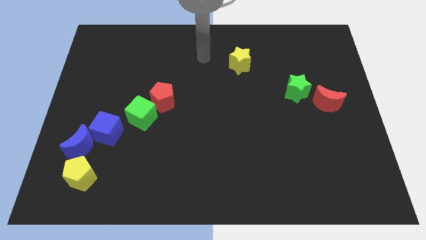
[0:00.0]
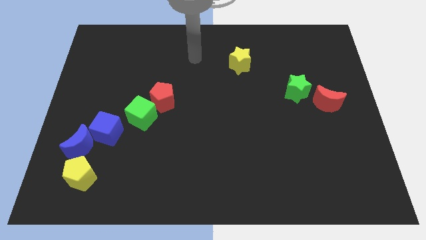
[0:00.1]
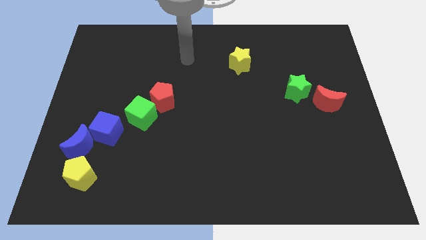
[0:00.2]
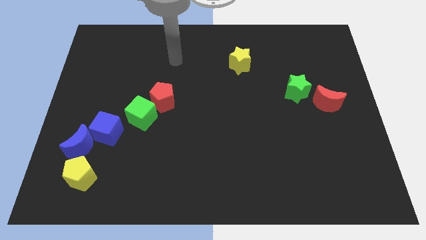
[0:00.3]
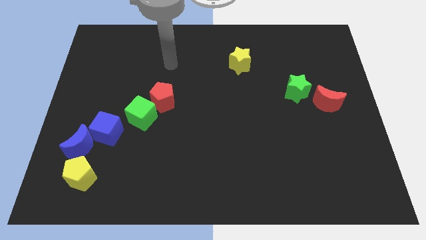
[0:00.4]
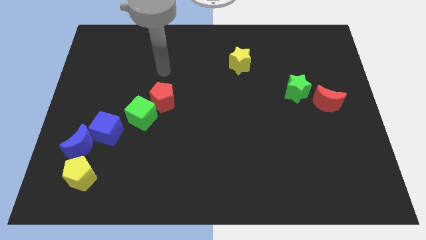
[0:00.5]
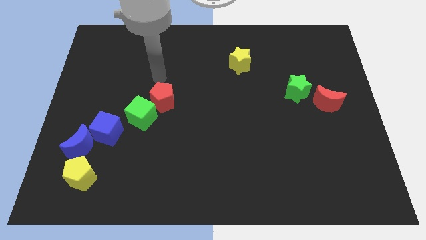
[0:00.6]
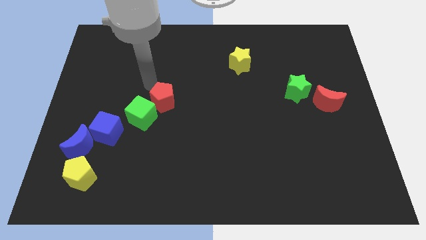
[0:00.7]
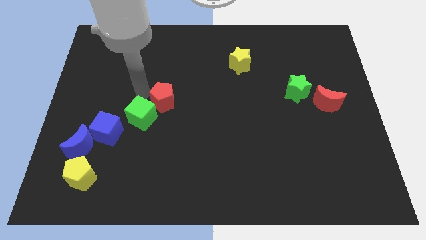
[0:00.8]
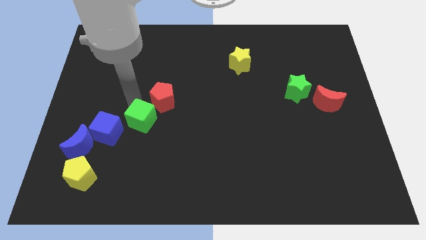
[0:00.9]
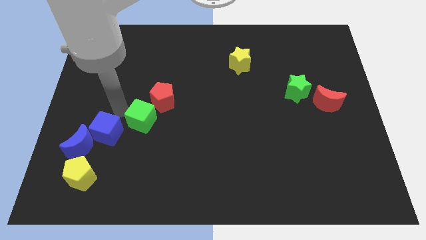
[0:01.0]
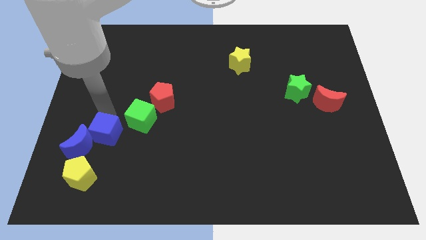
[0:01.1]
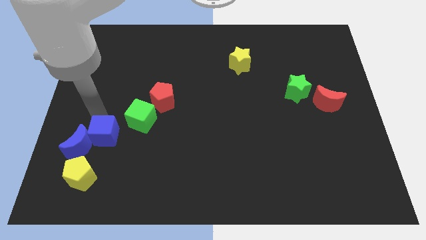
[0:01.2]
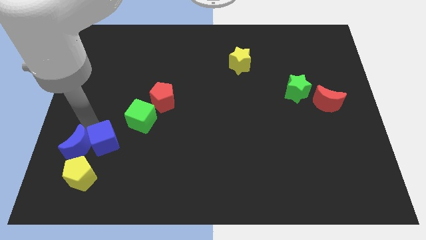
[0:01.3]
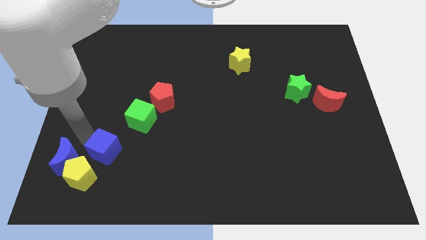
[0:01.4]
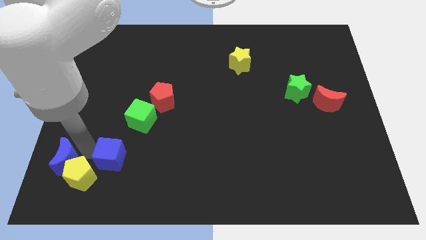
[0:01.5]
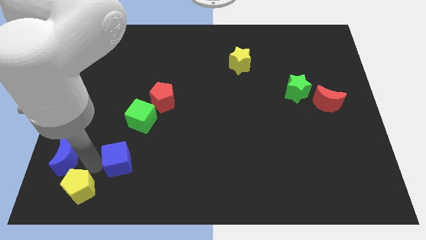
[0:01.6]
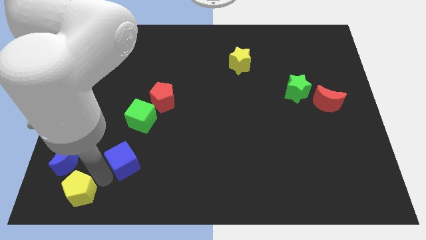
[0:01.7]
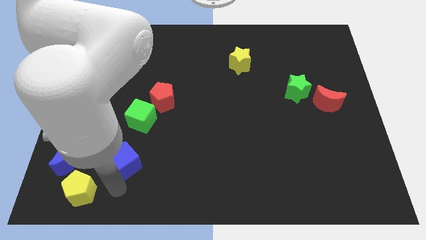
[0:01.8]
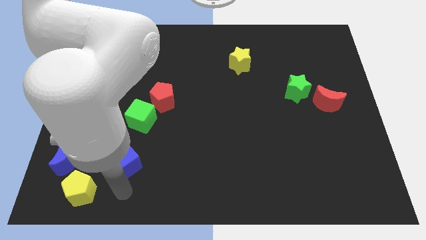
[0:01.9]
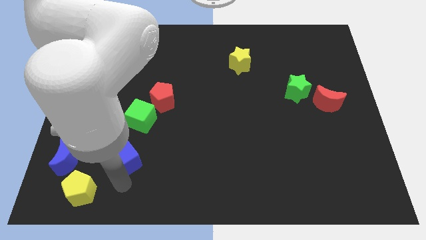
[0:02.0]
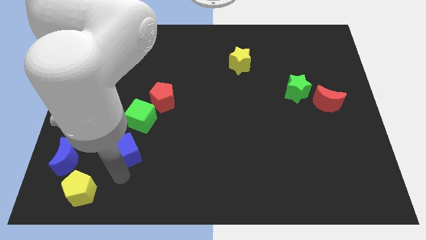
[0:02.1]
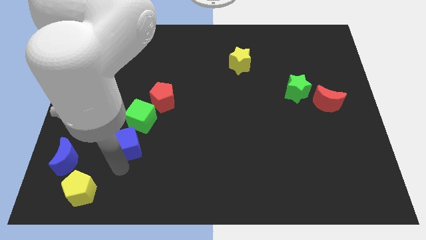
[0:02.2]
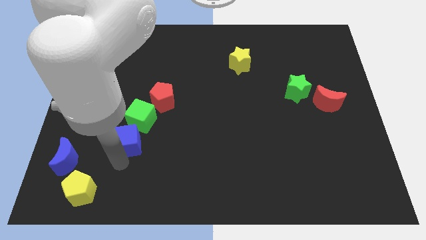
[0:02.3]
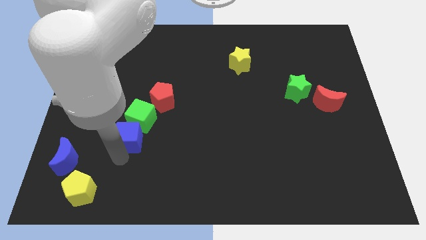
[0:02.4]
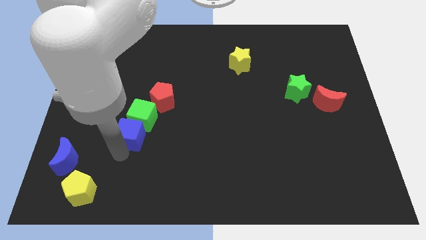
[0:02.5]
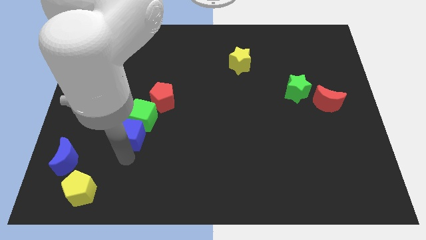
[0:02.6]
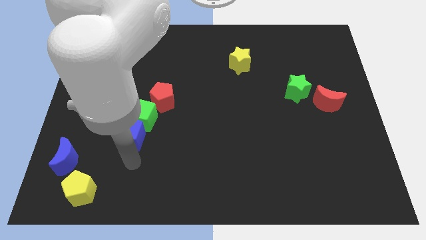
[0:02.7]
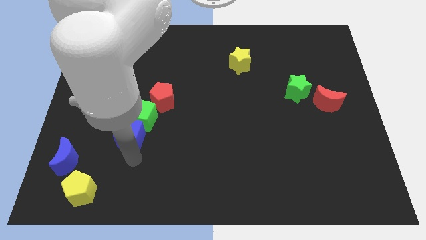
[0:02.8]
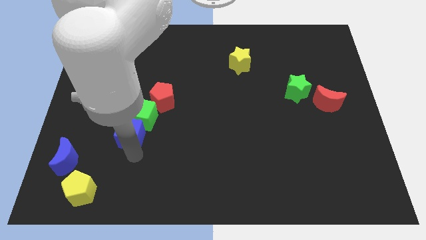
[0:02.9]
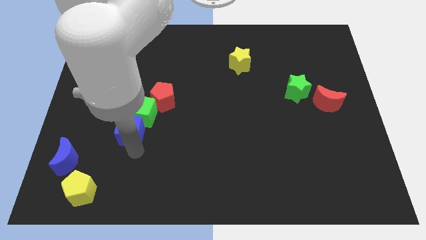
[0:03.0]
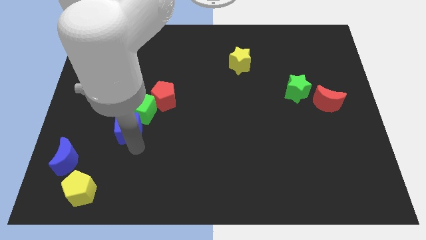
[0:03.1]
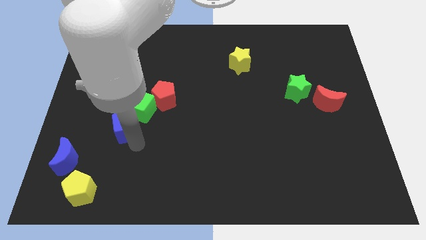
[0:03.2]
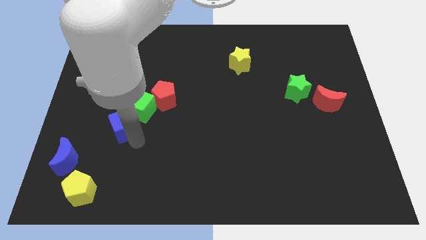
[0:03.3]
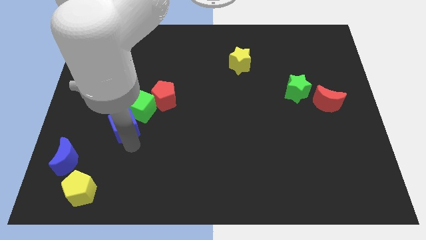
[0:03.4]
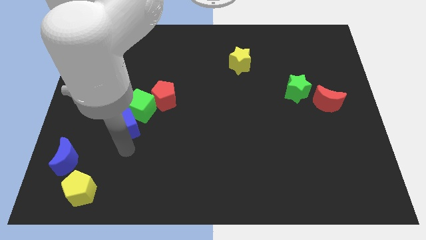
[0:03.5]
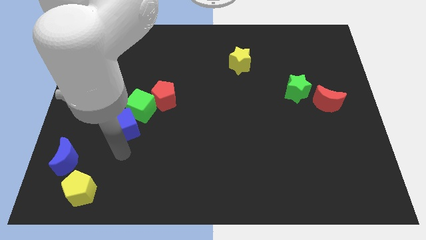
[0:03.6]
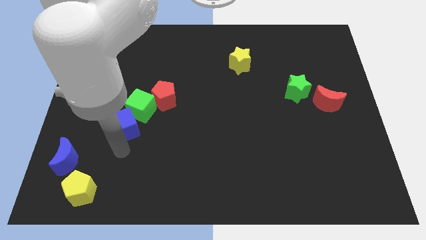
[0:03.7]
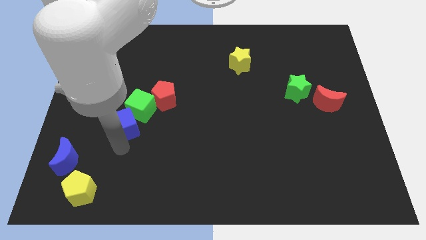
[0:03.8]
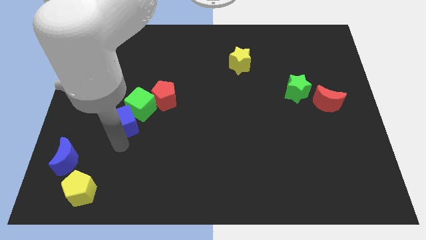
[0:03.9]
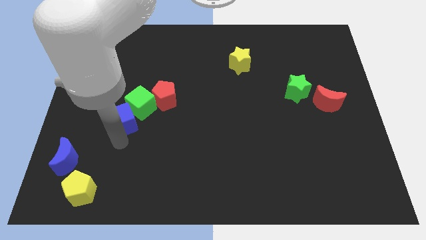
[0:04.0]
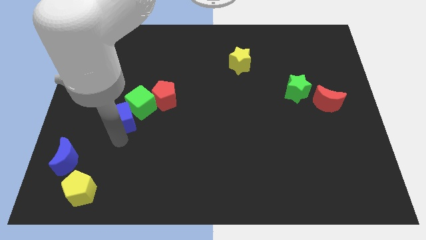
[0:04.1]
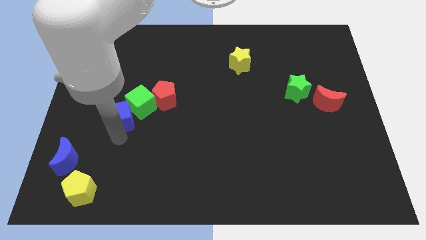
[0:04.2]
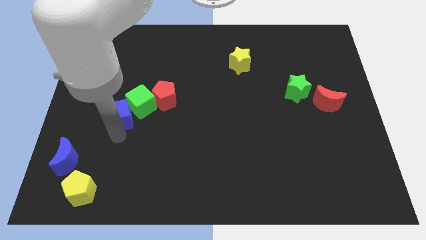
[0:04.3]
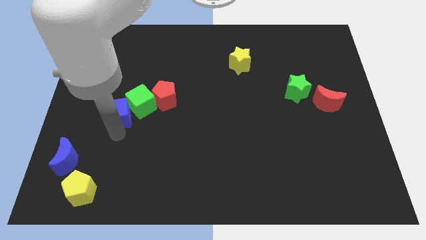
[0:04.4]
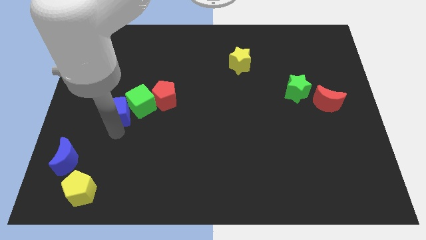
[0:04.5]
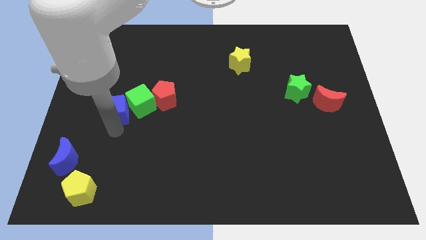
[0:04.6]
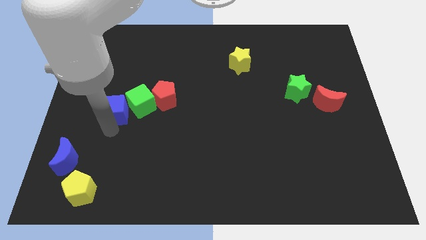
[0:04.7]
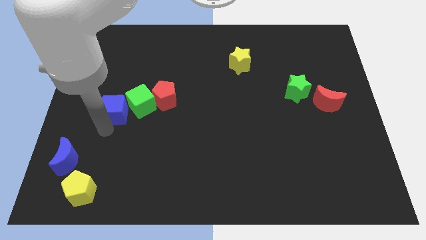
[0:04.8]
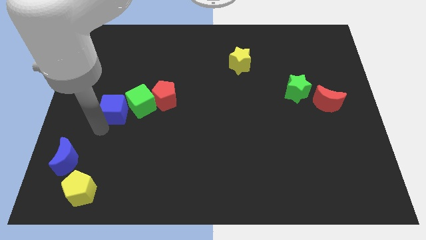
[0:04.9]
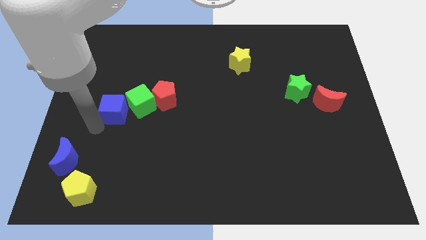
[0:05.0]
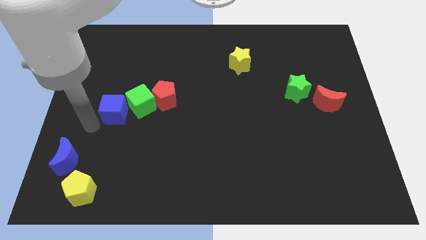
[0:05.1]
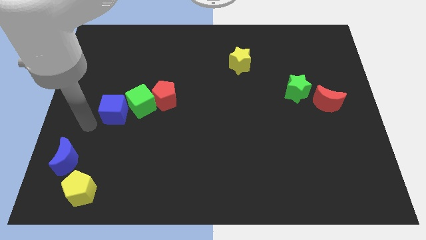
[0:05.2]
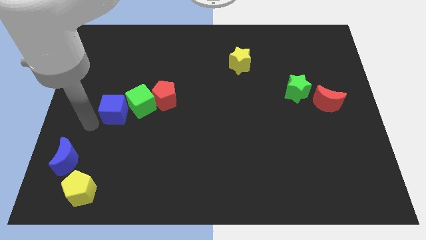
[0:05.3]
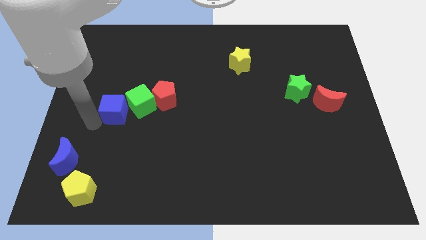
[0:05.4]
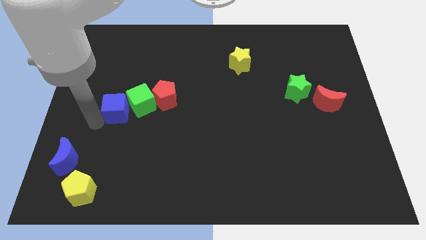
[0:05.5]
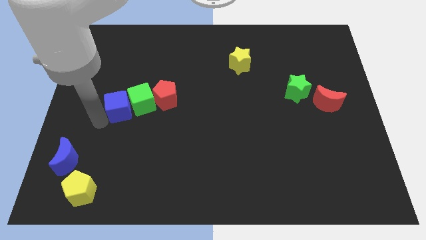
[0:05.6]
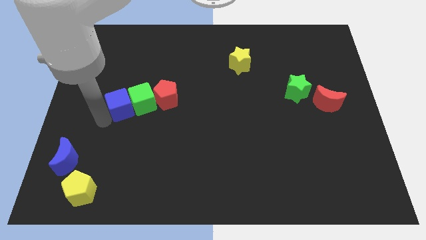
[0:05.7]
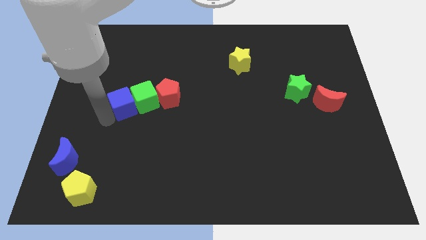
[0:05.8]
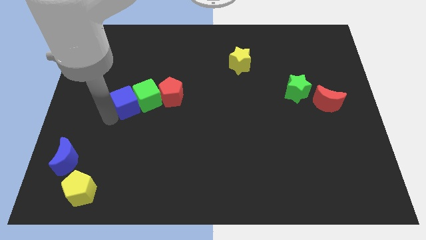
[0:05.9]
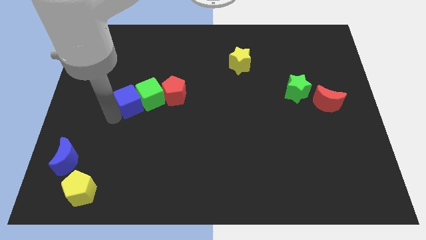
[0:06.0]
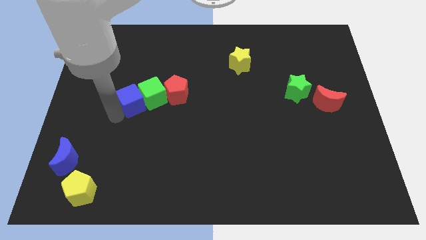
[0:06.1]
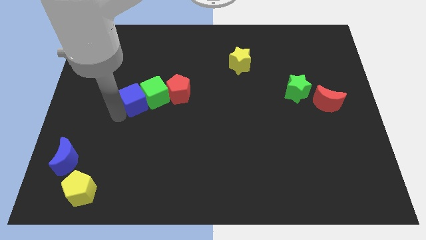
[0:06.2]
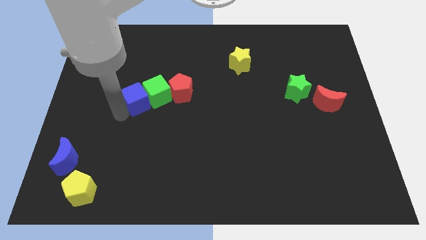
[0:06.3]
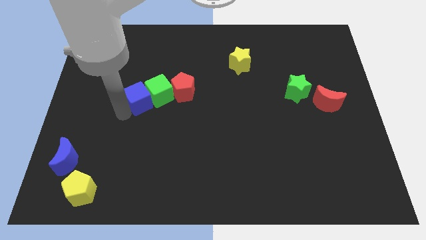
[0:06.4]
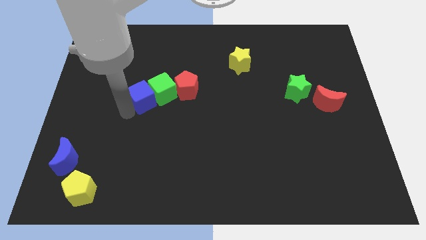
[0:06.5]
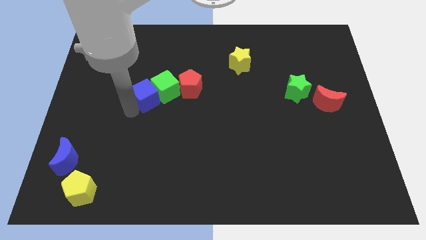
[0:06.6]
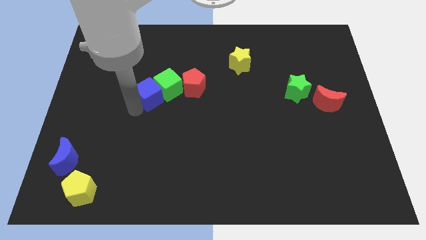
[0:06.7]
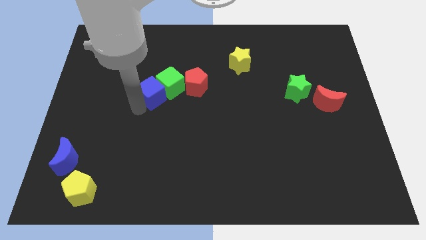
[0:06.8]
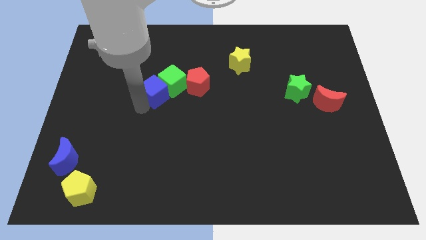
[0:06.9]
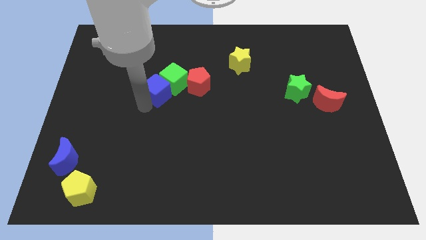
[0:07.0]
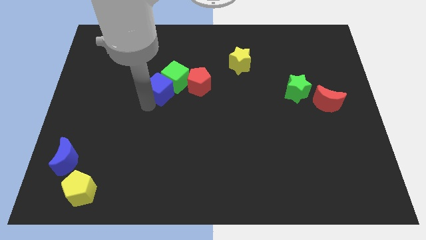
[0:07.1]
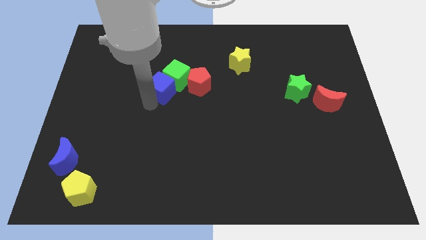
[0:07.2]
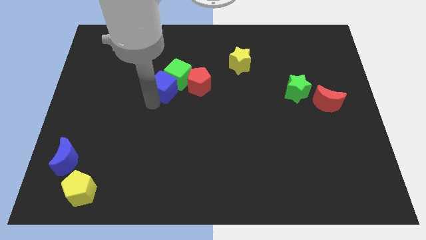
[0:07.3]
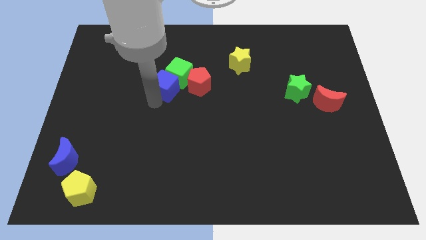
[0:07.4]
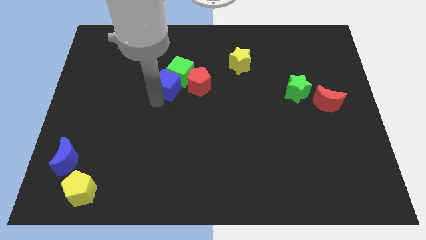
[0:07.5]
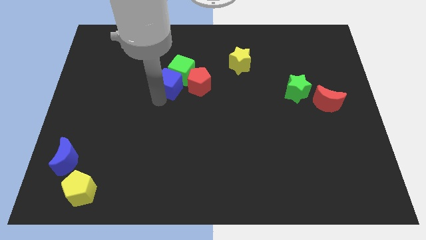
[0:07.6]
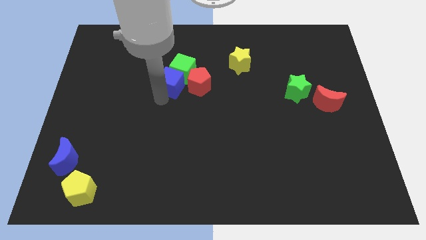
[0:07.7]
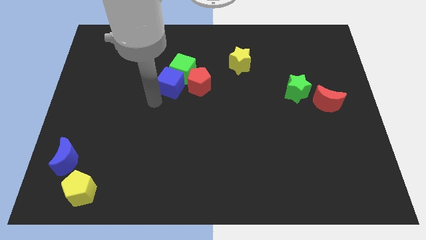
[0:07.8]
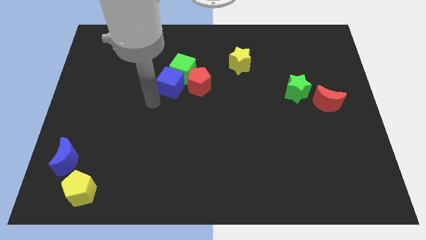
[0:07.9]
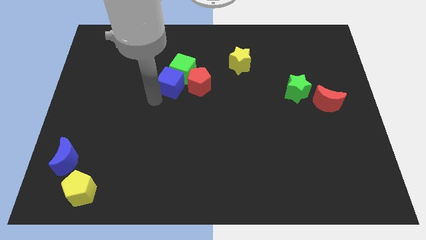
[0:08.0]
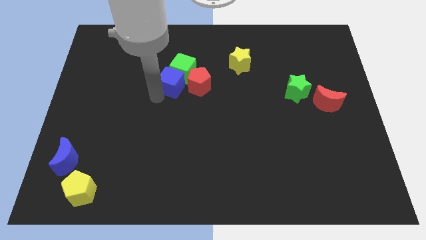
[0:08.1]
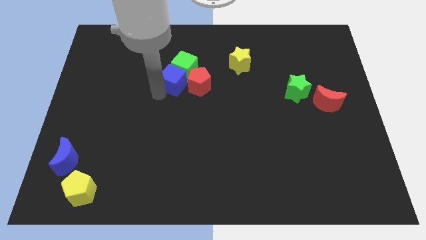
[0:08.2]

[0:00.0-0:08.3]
move the blue cube up and right diagonally
